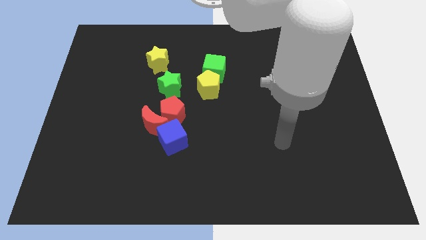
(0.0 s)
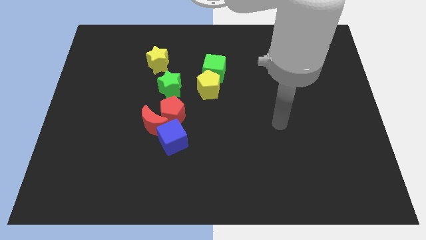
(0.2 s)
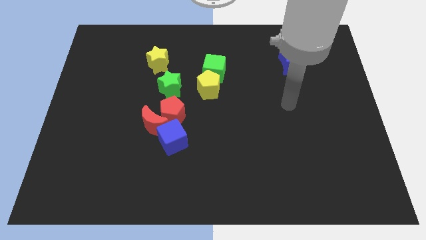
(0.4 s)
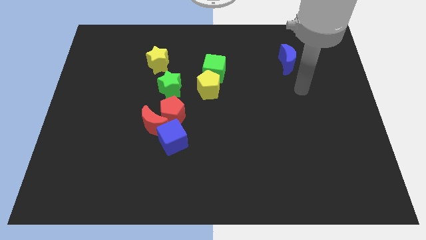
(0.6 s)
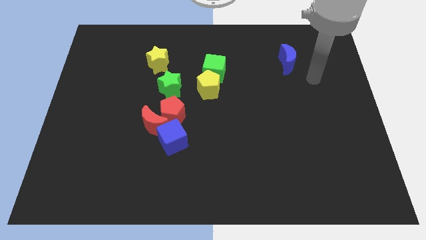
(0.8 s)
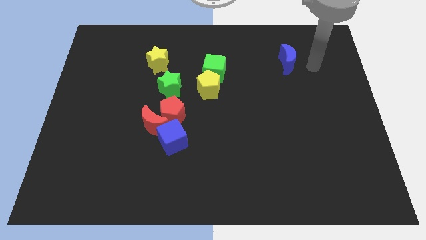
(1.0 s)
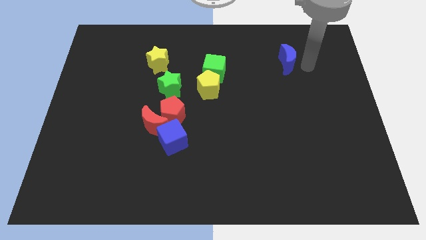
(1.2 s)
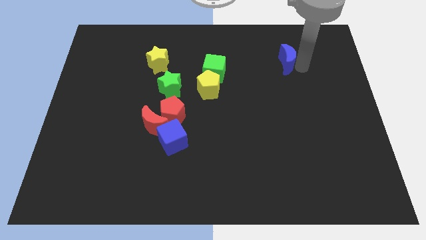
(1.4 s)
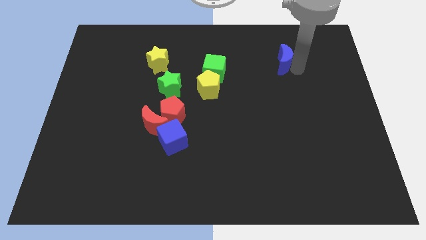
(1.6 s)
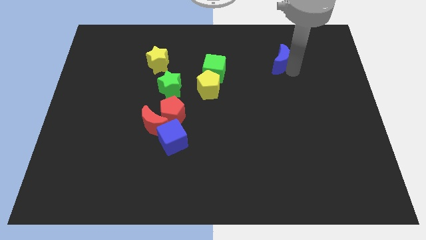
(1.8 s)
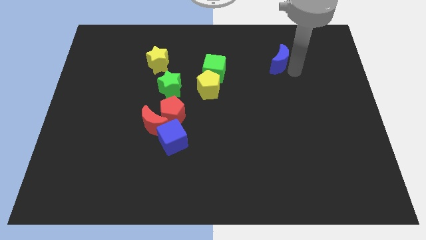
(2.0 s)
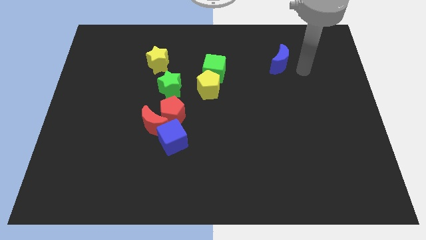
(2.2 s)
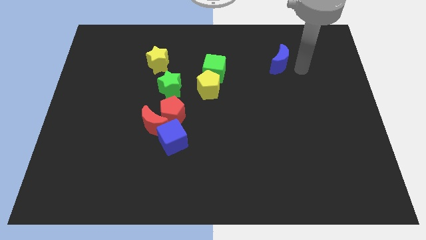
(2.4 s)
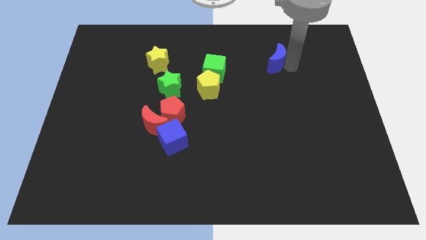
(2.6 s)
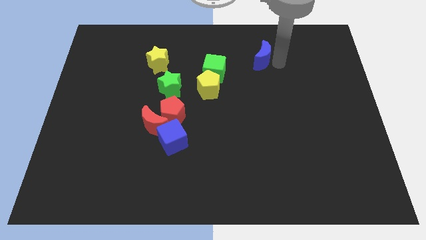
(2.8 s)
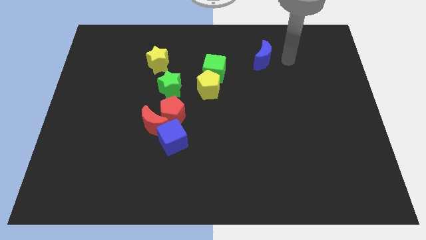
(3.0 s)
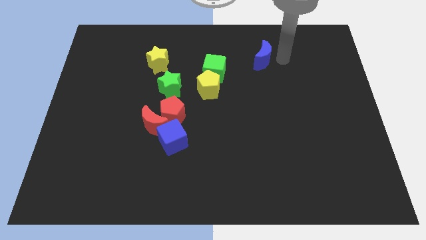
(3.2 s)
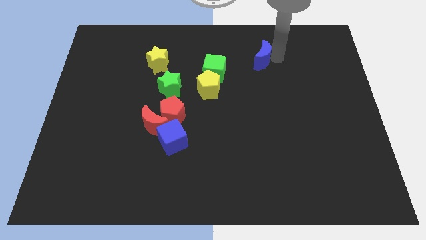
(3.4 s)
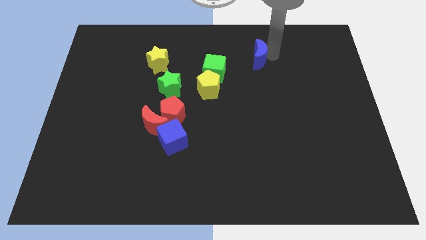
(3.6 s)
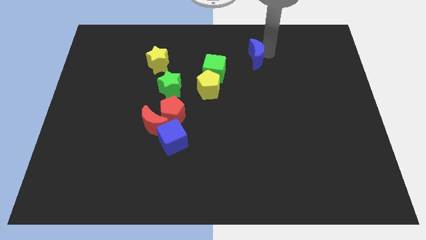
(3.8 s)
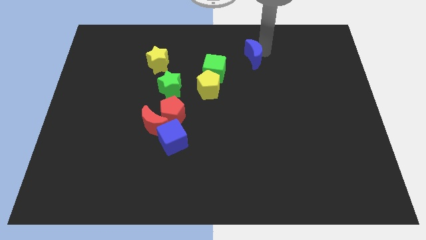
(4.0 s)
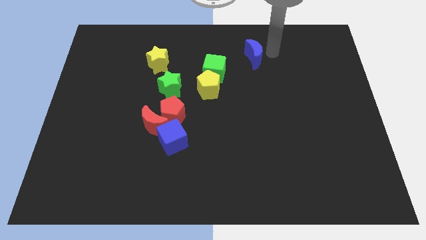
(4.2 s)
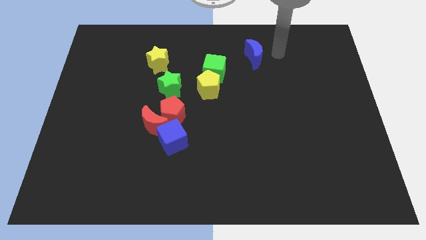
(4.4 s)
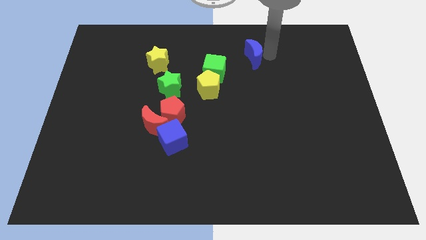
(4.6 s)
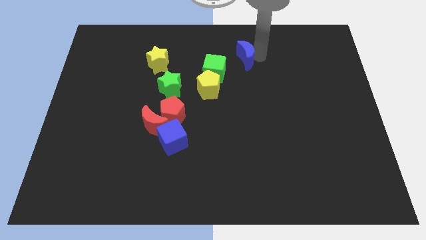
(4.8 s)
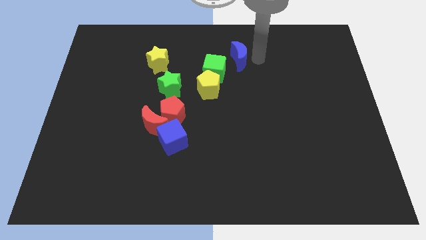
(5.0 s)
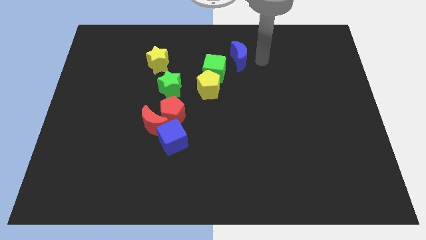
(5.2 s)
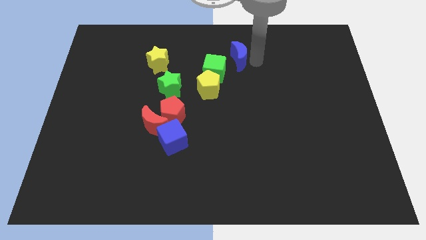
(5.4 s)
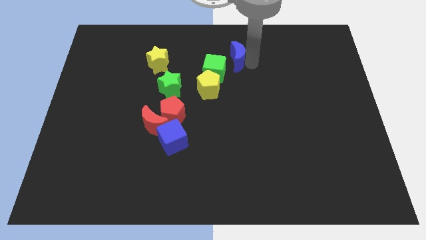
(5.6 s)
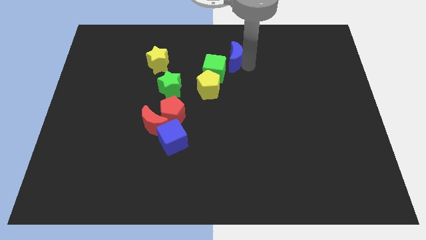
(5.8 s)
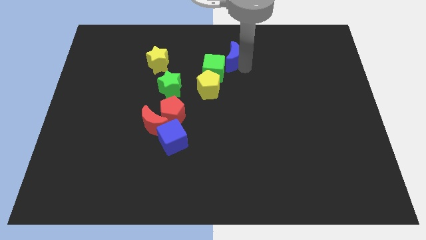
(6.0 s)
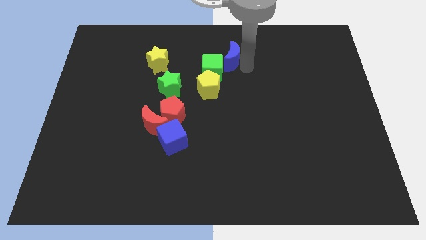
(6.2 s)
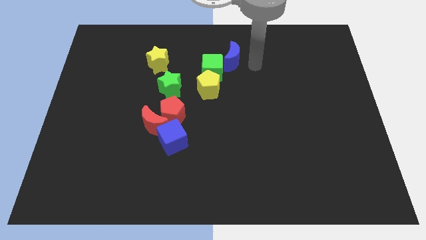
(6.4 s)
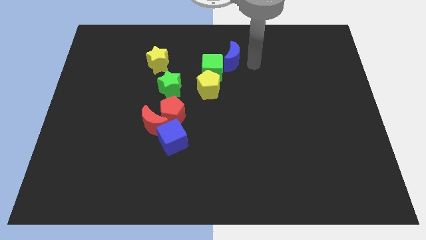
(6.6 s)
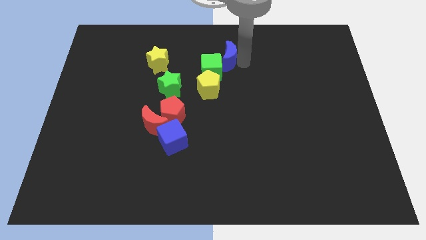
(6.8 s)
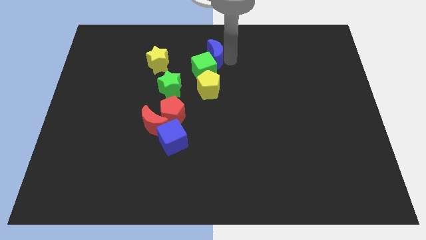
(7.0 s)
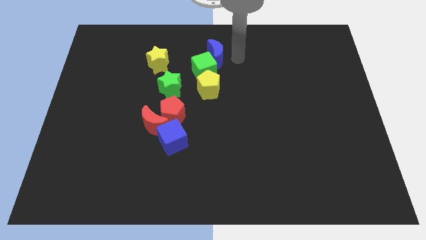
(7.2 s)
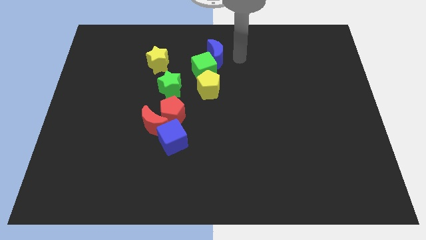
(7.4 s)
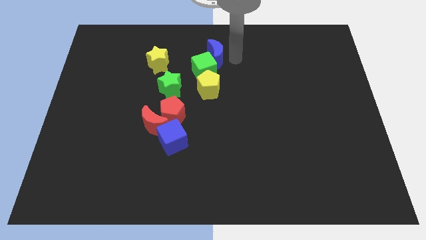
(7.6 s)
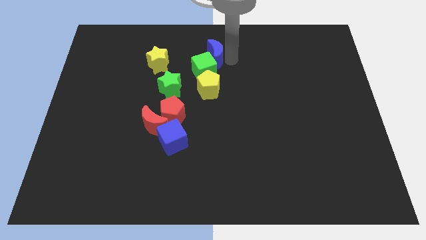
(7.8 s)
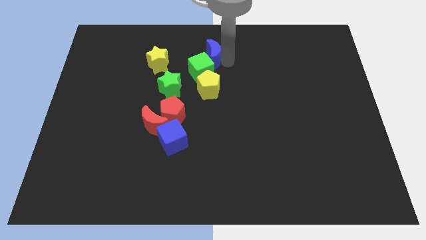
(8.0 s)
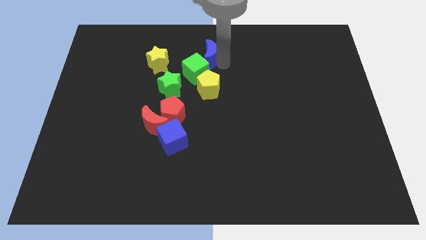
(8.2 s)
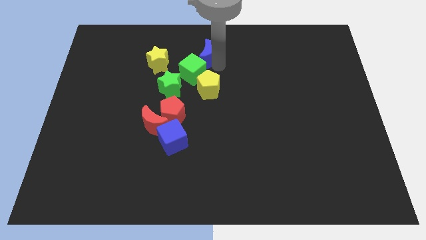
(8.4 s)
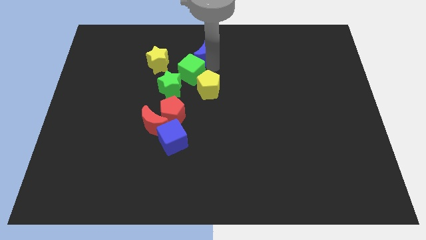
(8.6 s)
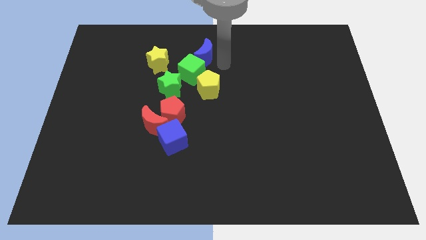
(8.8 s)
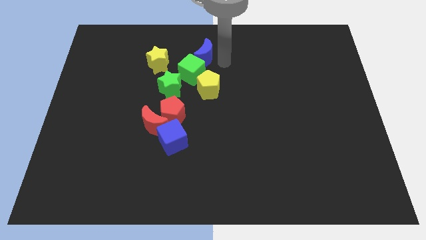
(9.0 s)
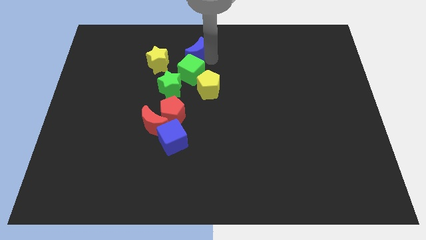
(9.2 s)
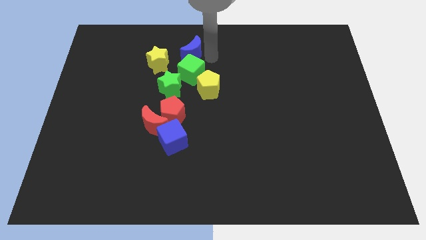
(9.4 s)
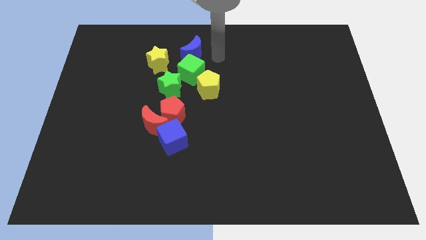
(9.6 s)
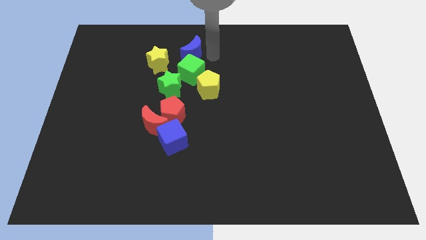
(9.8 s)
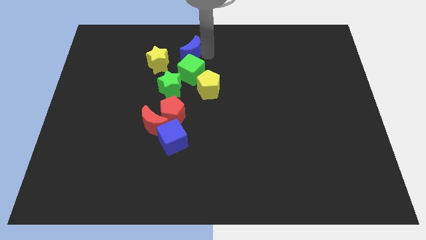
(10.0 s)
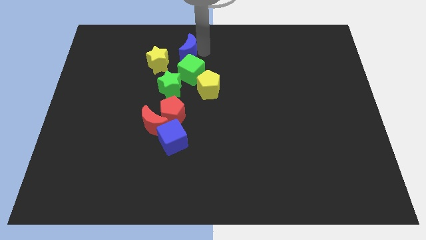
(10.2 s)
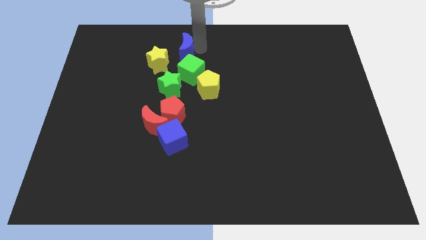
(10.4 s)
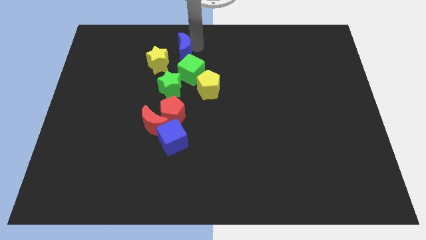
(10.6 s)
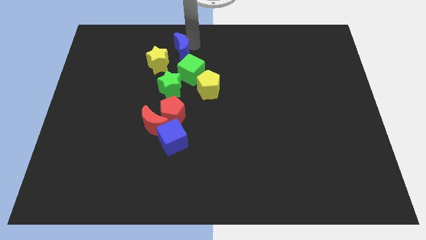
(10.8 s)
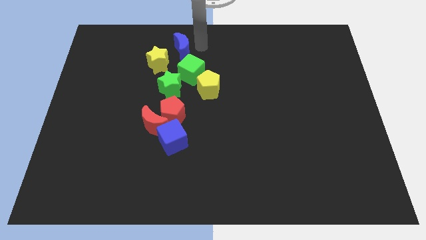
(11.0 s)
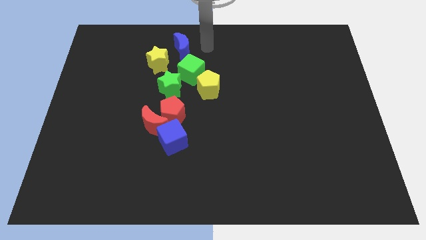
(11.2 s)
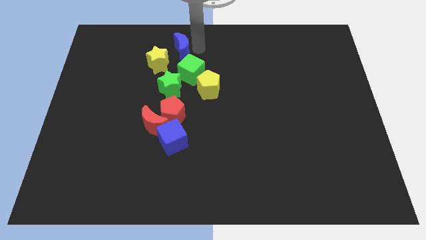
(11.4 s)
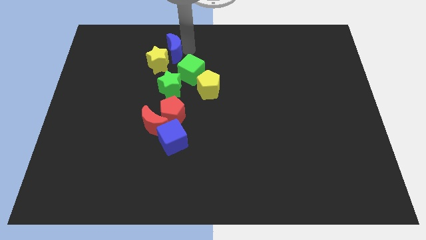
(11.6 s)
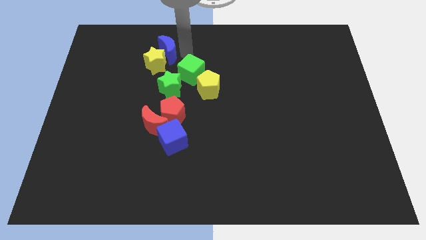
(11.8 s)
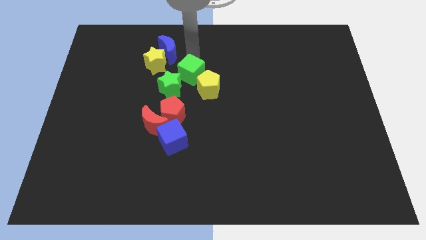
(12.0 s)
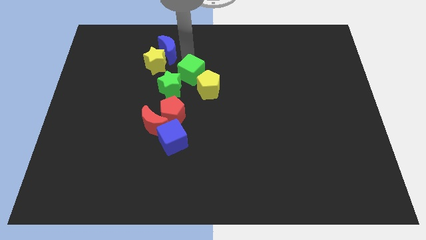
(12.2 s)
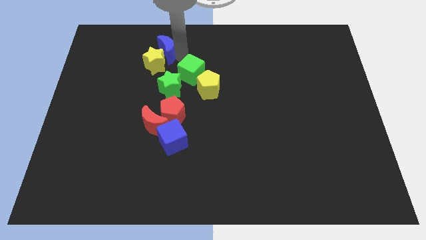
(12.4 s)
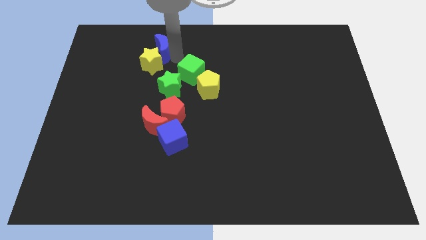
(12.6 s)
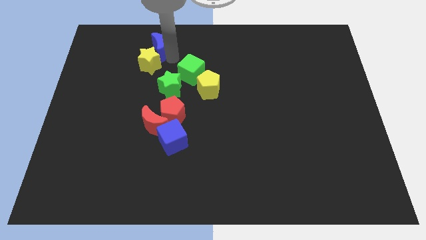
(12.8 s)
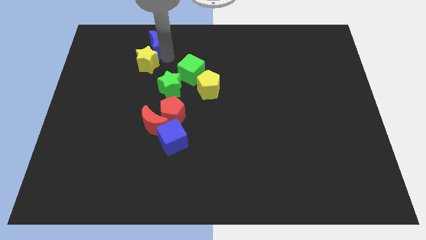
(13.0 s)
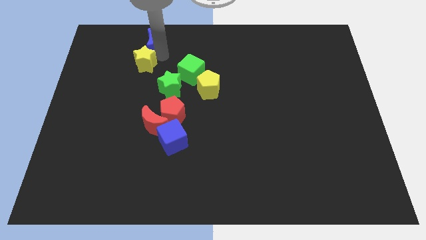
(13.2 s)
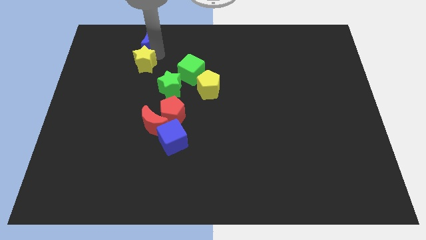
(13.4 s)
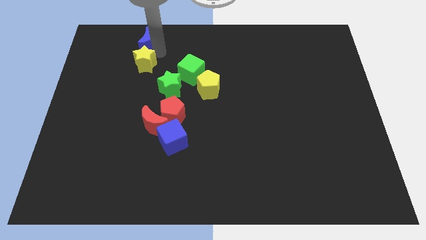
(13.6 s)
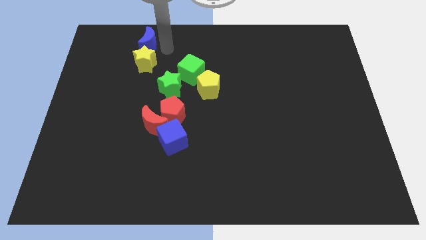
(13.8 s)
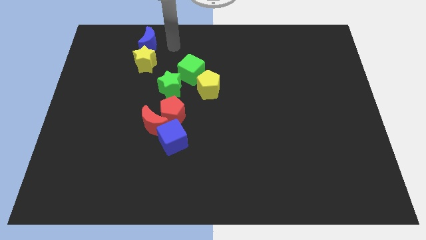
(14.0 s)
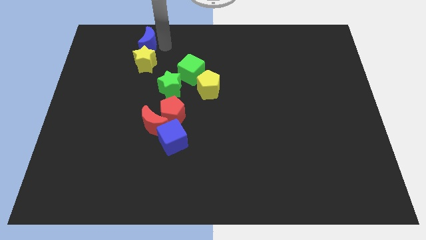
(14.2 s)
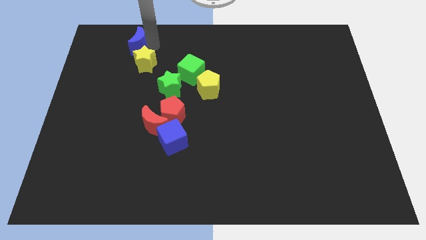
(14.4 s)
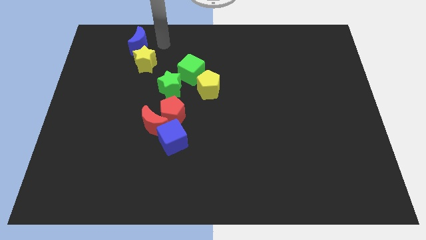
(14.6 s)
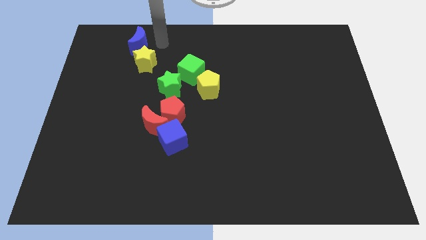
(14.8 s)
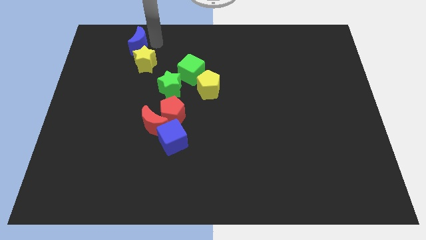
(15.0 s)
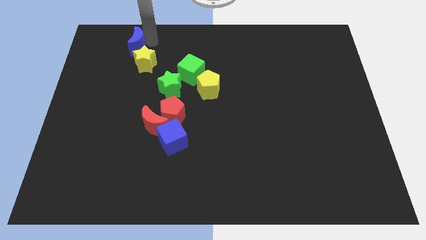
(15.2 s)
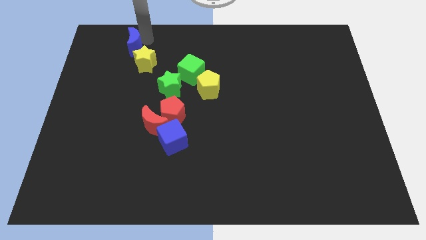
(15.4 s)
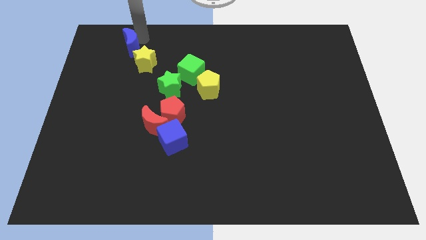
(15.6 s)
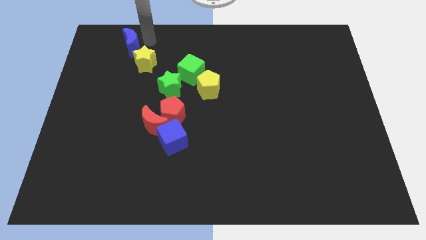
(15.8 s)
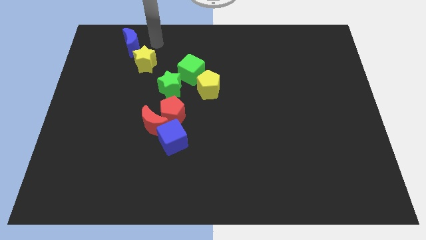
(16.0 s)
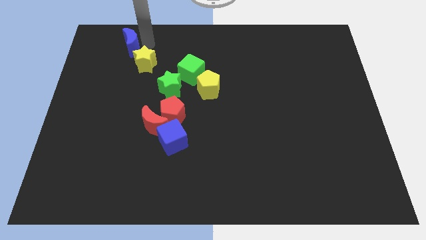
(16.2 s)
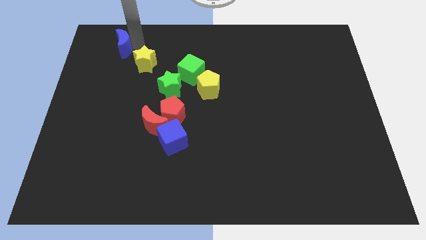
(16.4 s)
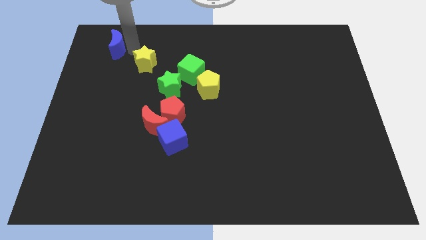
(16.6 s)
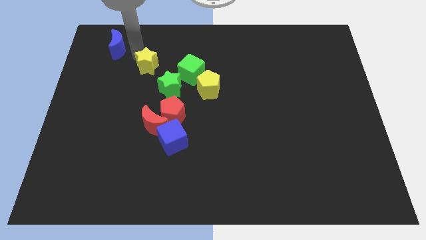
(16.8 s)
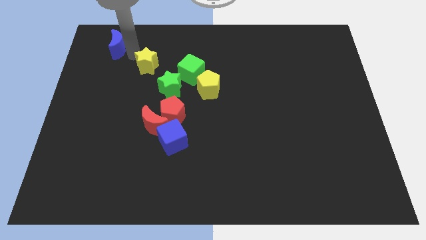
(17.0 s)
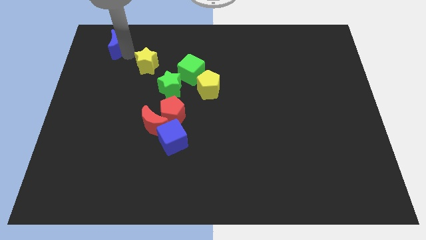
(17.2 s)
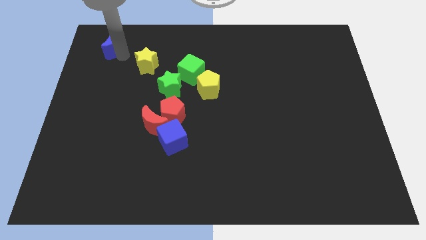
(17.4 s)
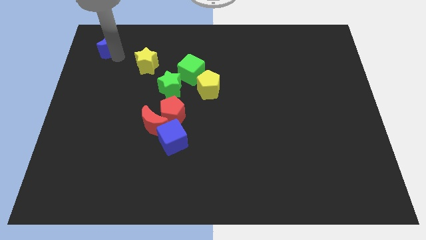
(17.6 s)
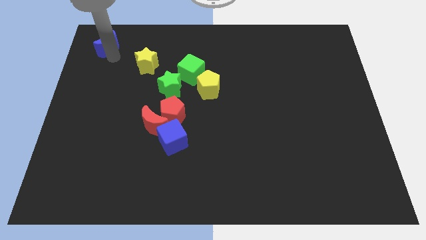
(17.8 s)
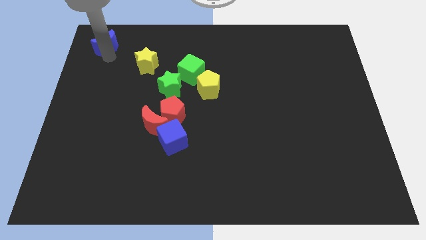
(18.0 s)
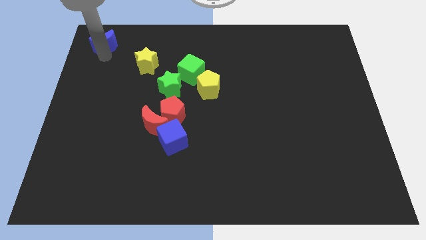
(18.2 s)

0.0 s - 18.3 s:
slide the blue moon to the top left corner

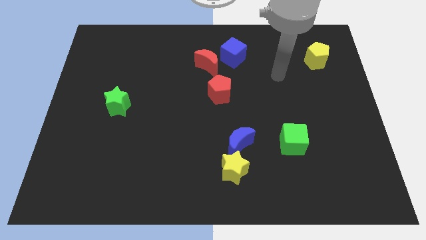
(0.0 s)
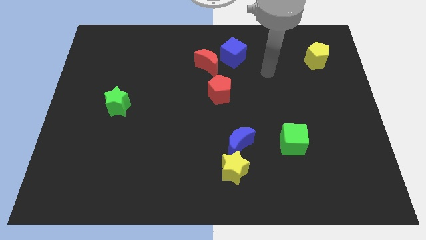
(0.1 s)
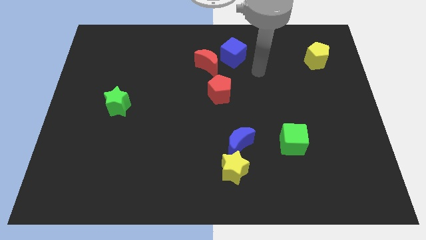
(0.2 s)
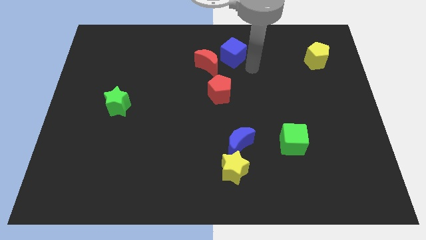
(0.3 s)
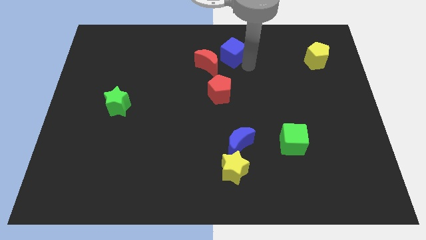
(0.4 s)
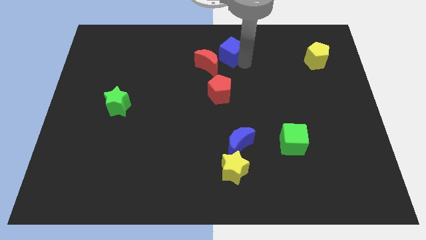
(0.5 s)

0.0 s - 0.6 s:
put the blue cube to the top side
